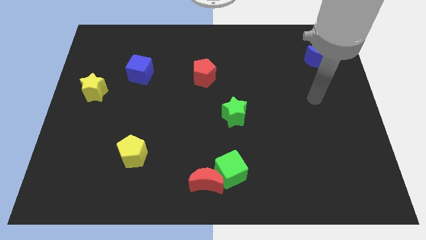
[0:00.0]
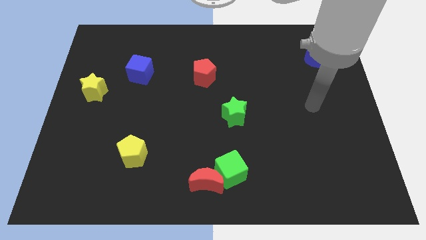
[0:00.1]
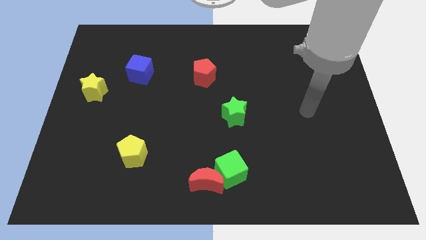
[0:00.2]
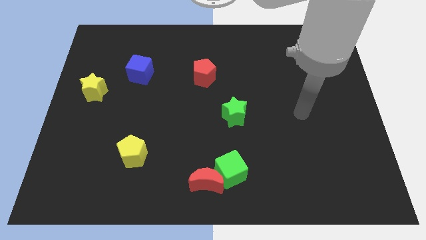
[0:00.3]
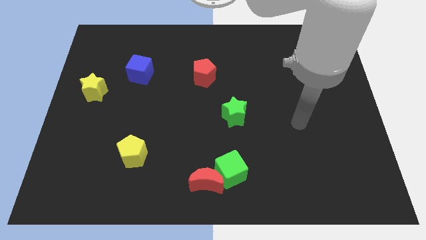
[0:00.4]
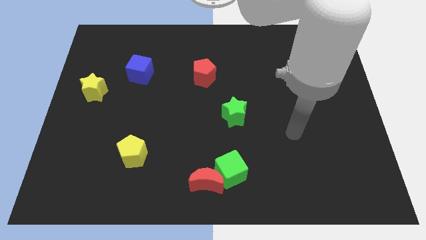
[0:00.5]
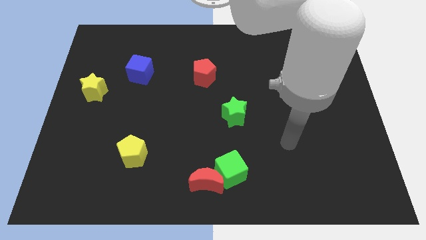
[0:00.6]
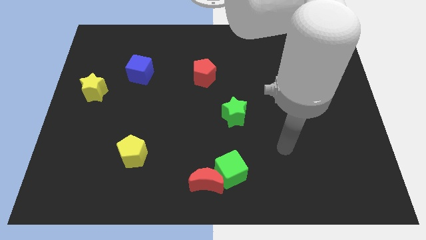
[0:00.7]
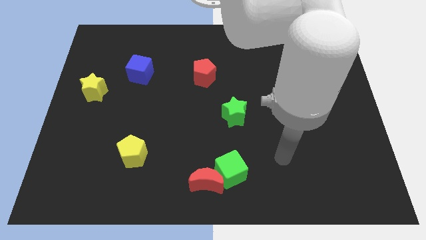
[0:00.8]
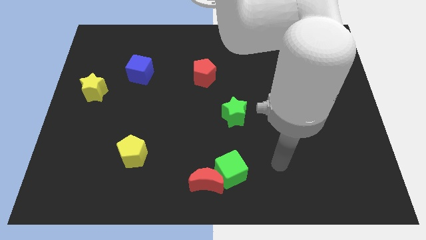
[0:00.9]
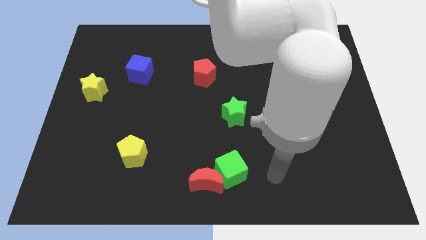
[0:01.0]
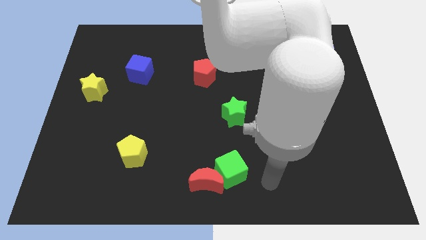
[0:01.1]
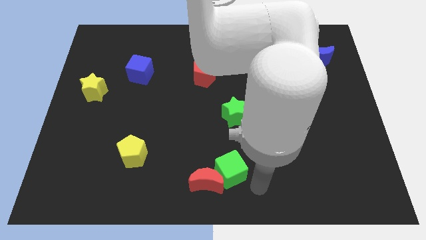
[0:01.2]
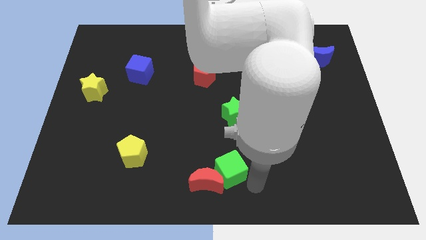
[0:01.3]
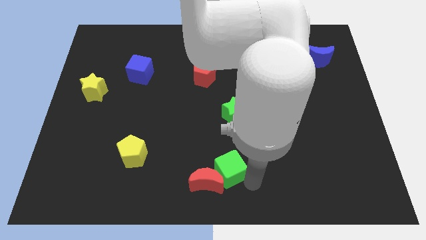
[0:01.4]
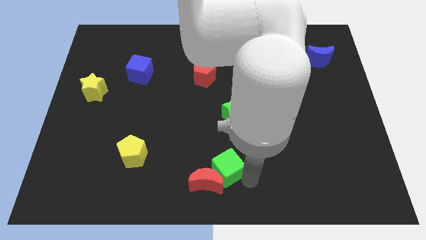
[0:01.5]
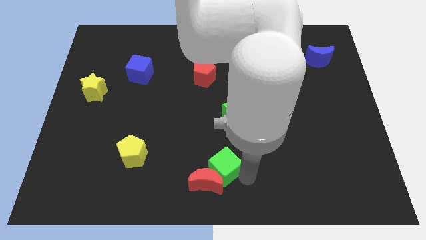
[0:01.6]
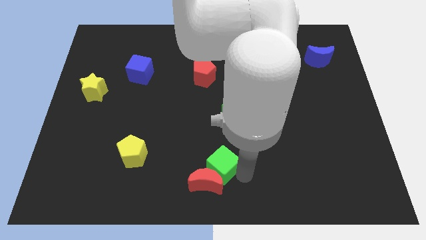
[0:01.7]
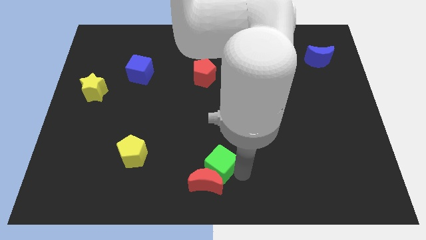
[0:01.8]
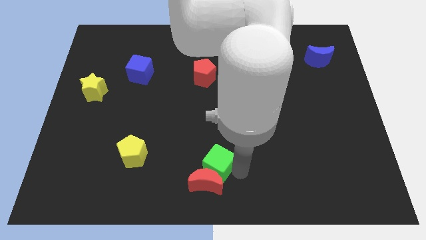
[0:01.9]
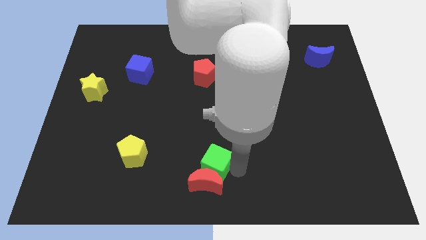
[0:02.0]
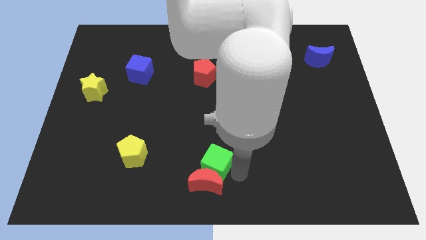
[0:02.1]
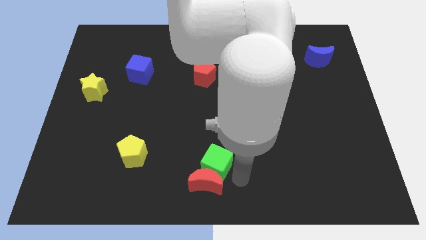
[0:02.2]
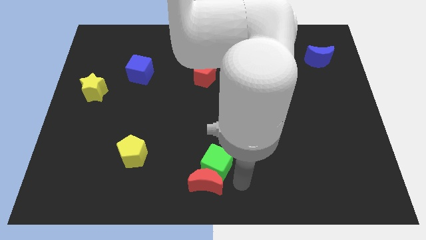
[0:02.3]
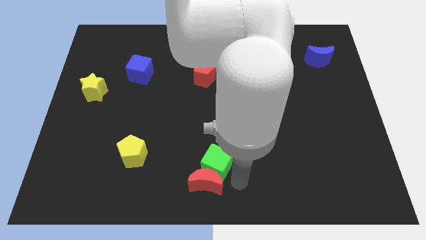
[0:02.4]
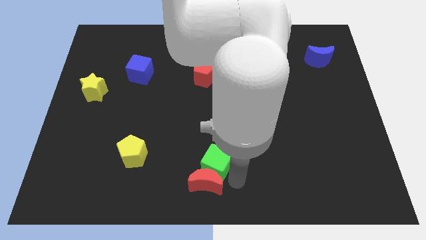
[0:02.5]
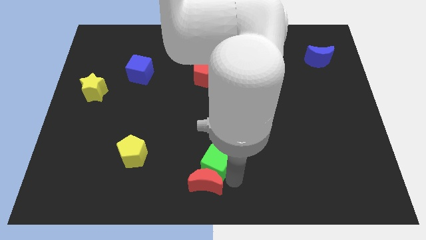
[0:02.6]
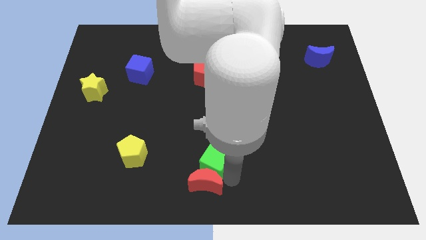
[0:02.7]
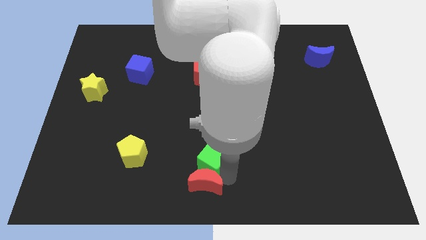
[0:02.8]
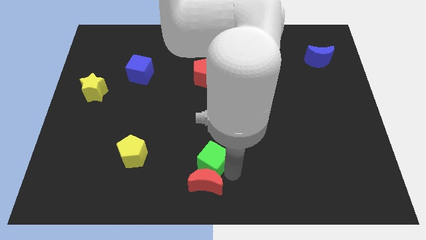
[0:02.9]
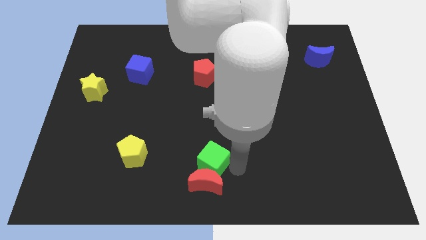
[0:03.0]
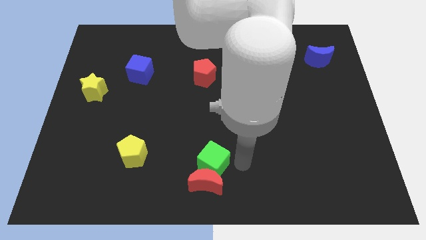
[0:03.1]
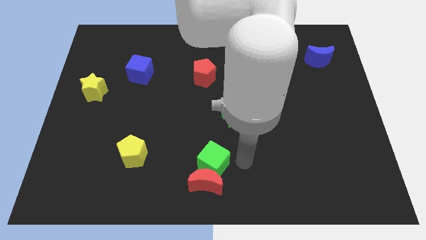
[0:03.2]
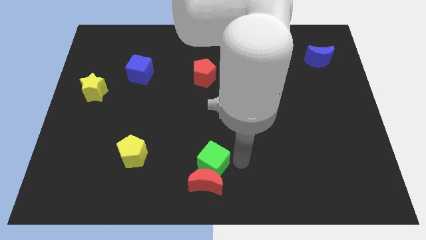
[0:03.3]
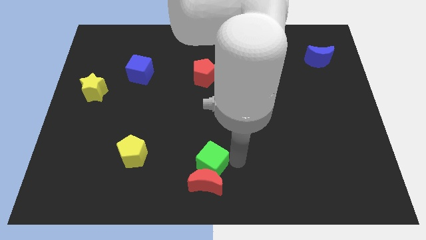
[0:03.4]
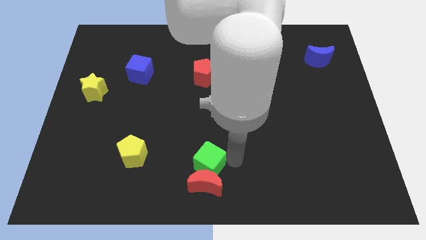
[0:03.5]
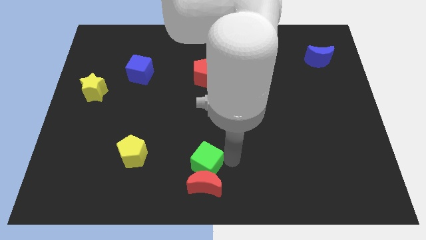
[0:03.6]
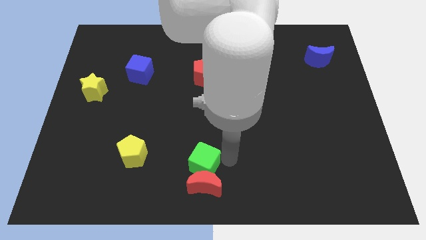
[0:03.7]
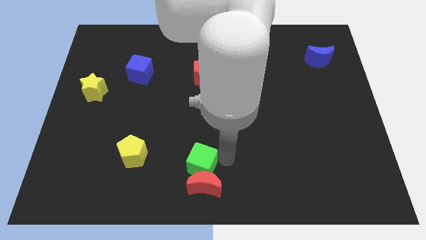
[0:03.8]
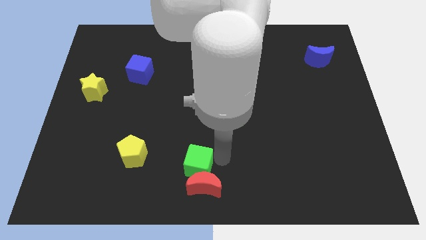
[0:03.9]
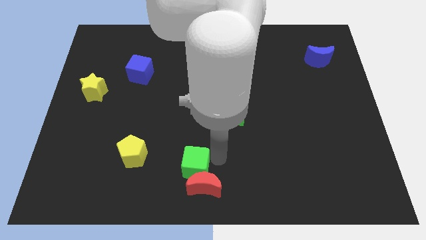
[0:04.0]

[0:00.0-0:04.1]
push the green cube to the left a bit

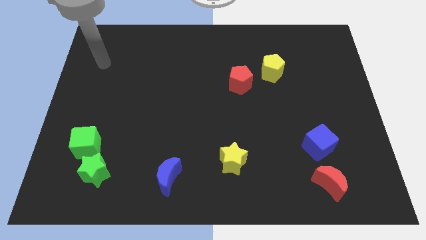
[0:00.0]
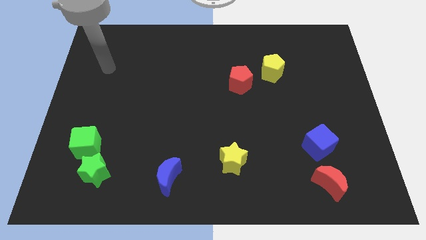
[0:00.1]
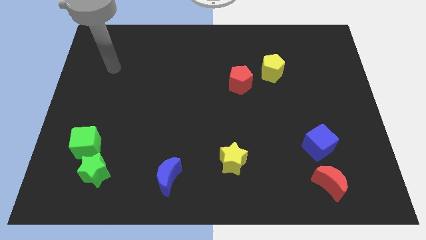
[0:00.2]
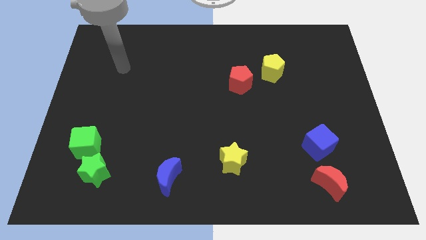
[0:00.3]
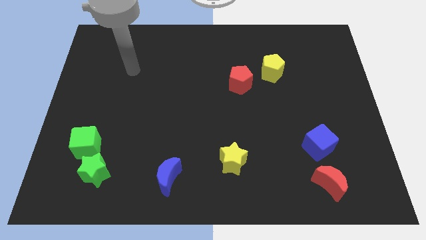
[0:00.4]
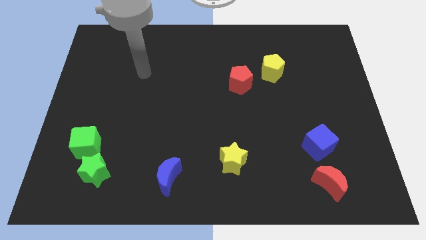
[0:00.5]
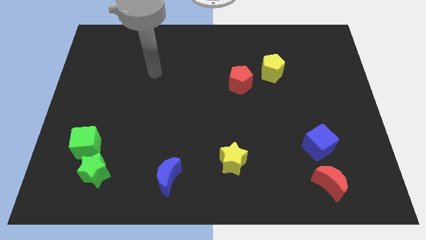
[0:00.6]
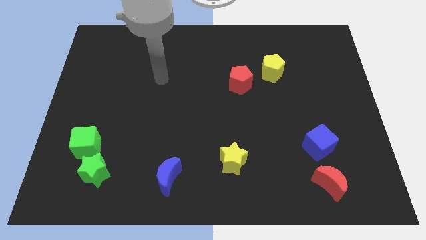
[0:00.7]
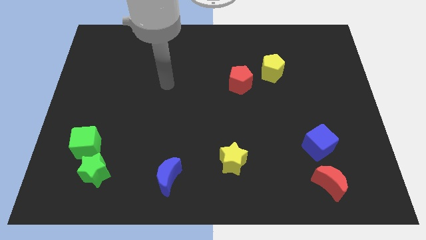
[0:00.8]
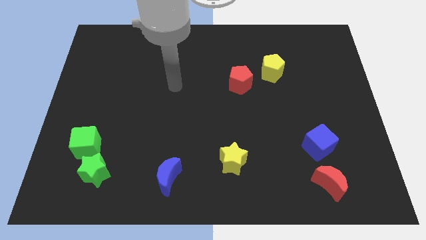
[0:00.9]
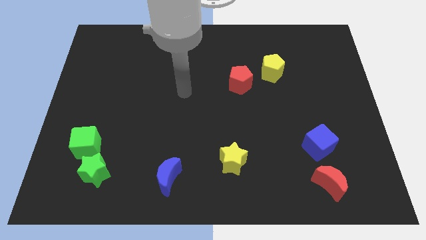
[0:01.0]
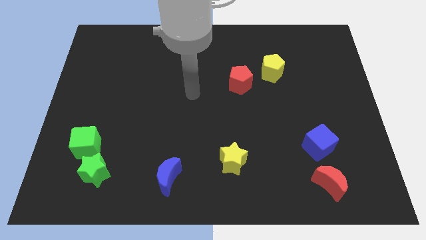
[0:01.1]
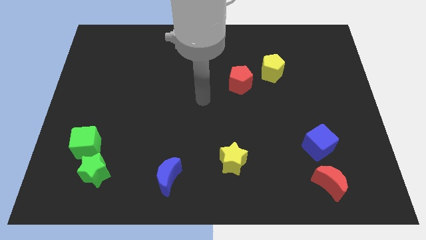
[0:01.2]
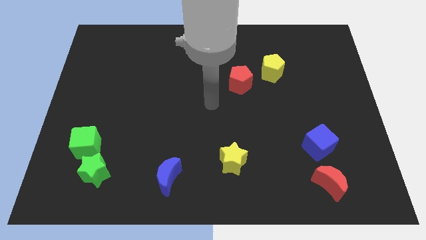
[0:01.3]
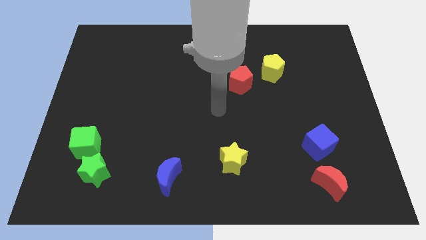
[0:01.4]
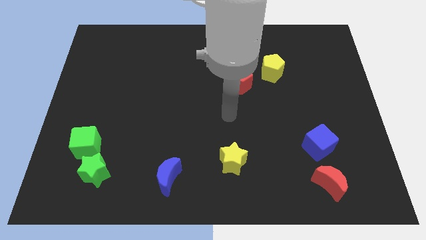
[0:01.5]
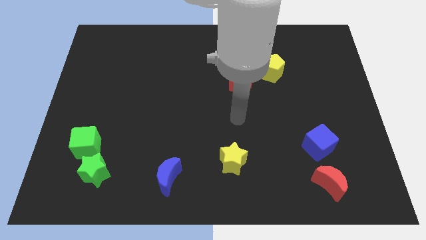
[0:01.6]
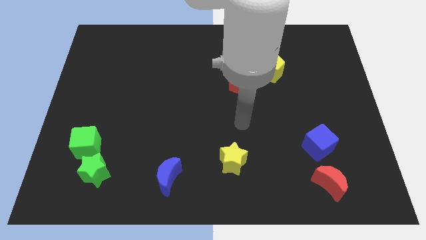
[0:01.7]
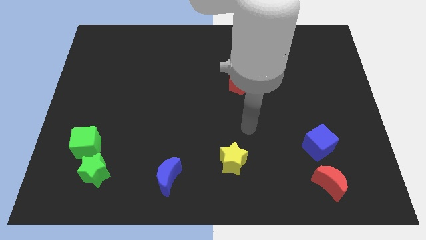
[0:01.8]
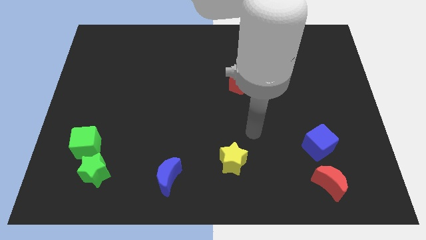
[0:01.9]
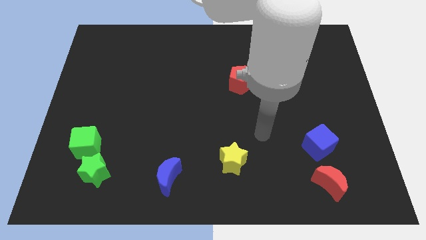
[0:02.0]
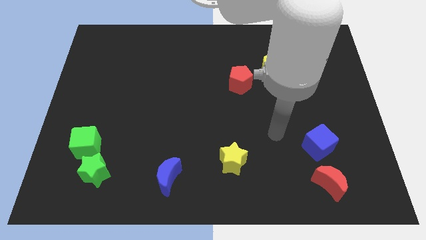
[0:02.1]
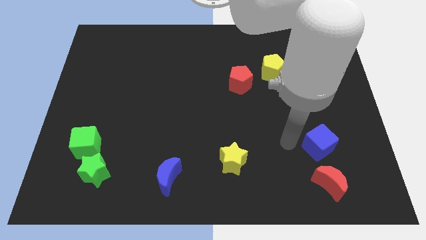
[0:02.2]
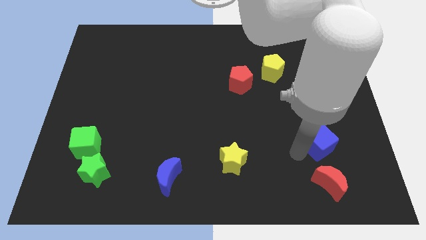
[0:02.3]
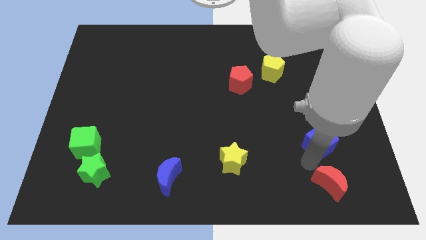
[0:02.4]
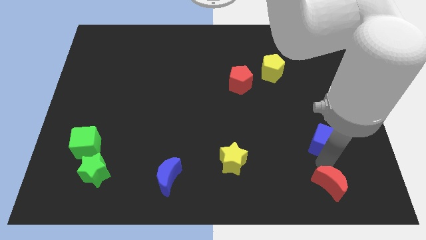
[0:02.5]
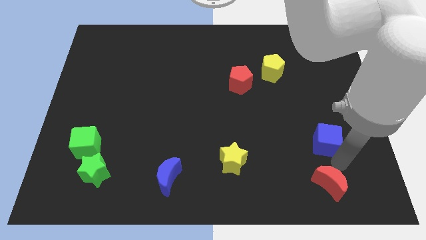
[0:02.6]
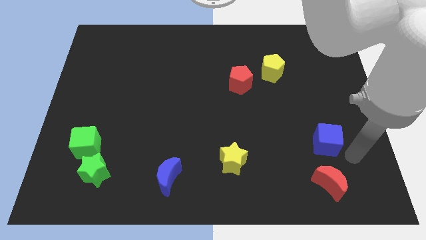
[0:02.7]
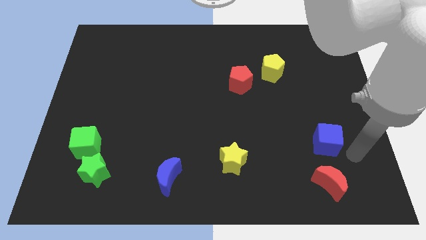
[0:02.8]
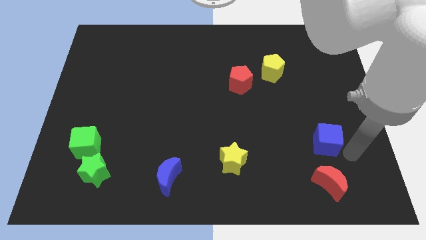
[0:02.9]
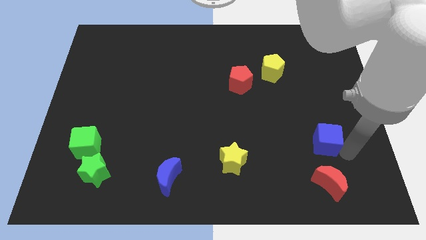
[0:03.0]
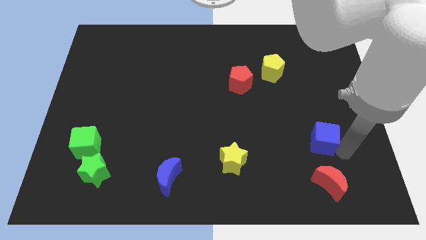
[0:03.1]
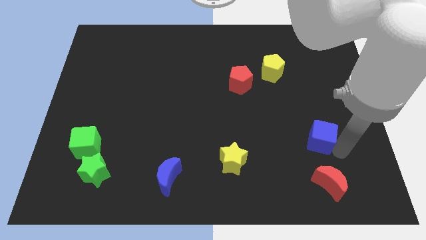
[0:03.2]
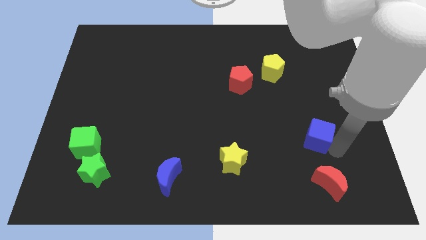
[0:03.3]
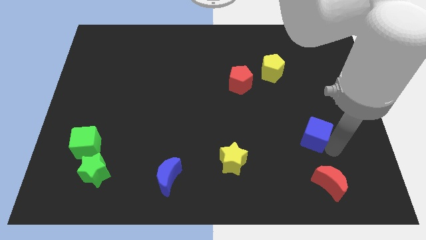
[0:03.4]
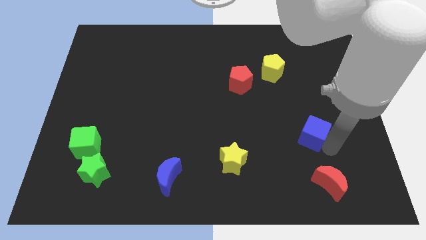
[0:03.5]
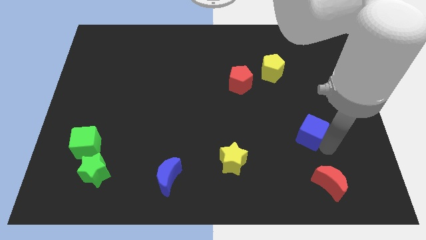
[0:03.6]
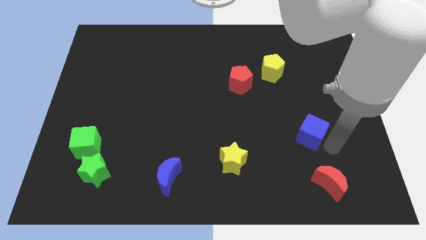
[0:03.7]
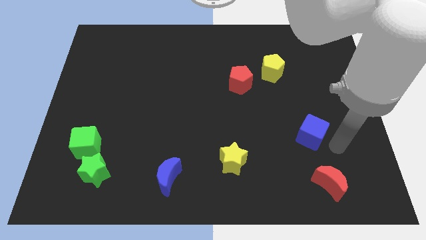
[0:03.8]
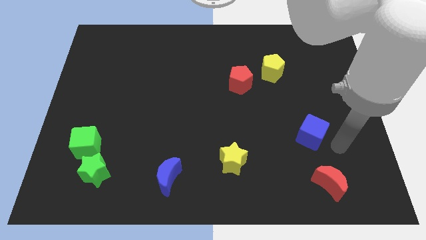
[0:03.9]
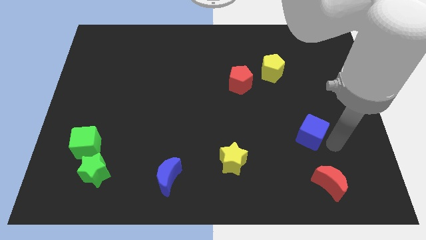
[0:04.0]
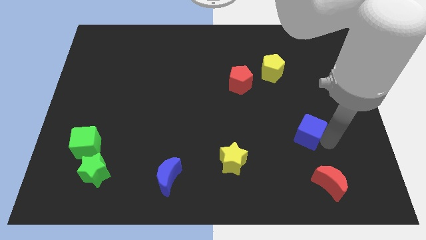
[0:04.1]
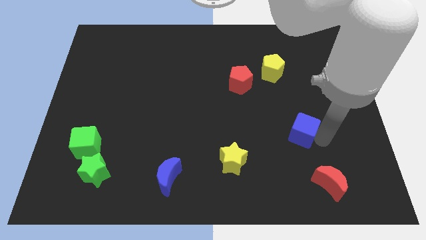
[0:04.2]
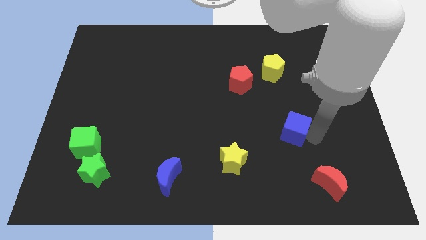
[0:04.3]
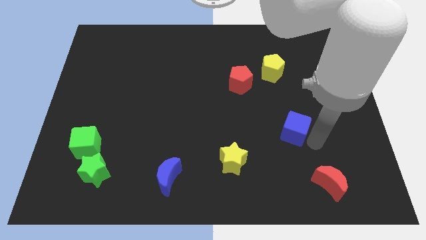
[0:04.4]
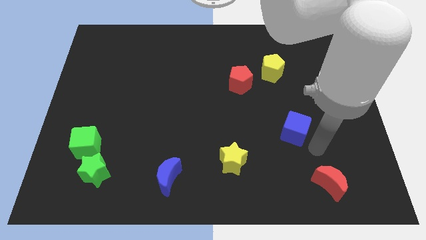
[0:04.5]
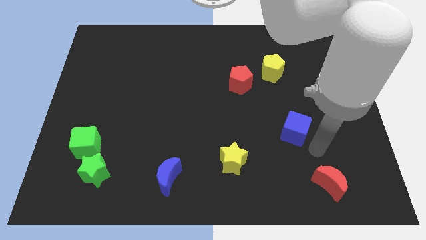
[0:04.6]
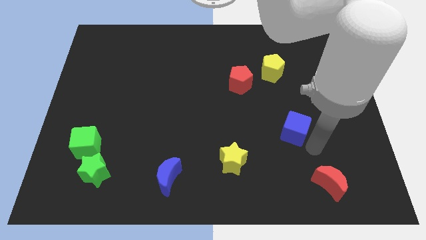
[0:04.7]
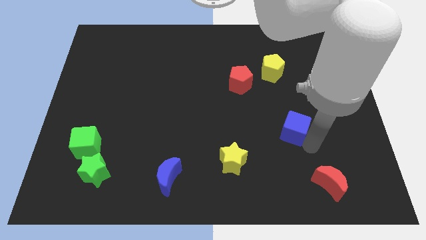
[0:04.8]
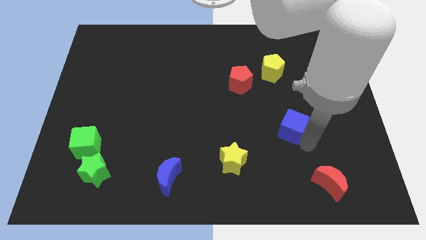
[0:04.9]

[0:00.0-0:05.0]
slightly move the blue cube up and left diagonally
